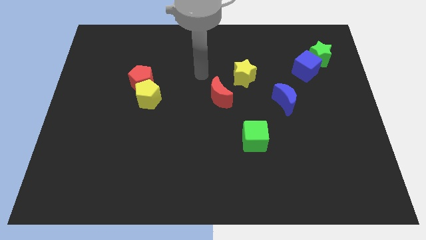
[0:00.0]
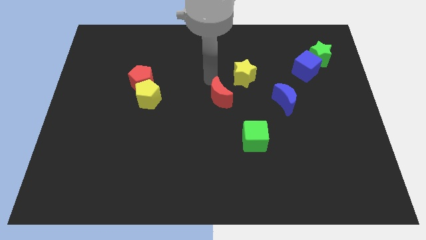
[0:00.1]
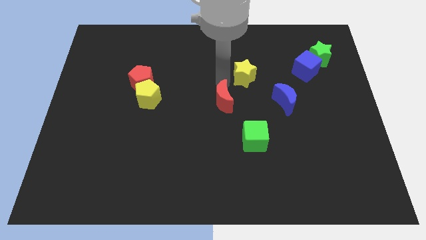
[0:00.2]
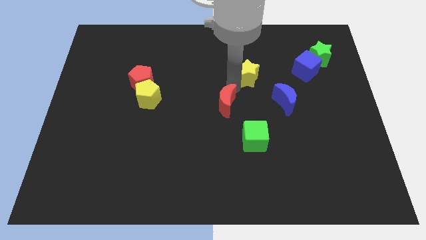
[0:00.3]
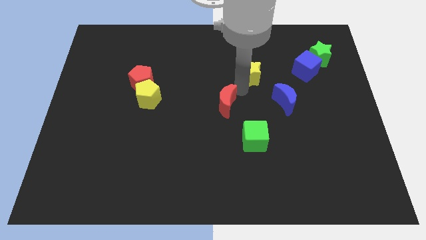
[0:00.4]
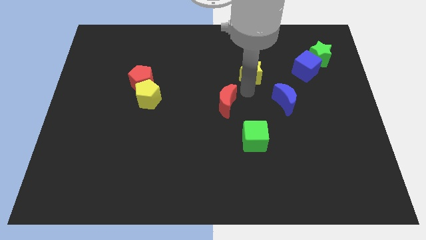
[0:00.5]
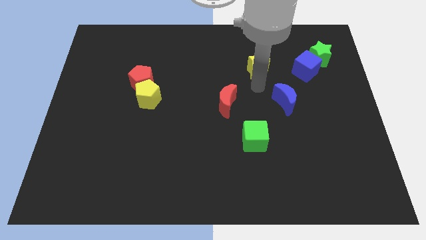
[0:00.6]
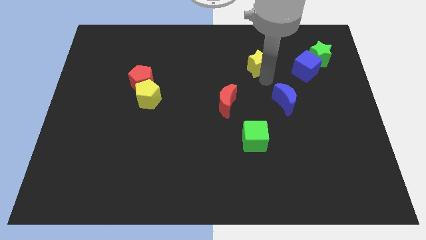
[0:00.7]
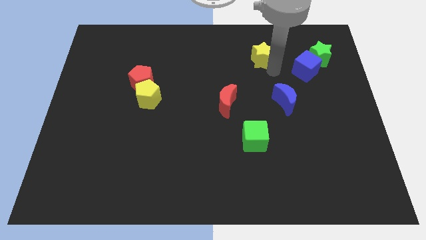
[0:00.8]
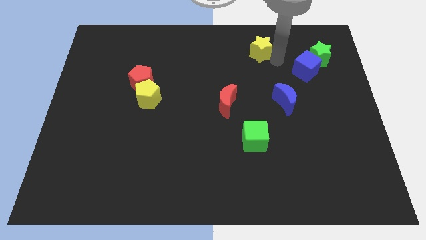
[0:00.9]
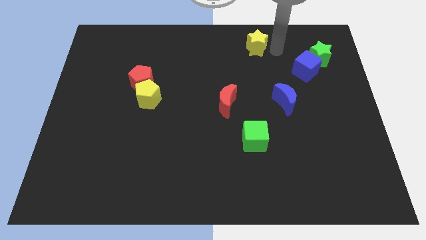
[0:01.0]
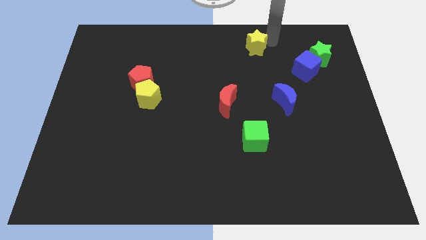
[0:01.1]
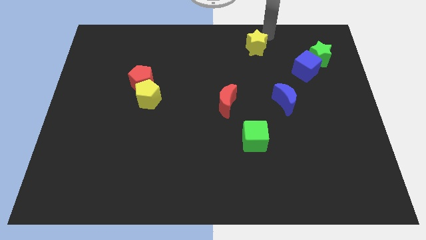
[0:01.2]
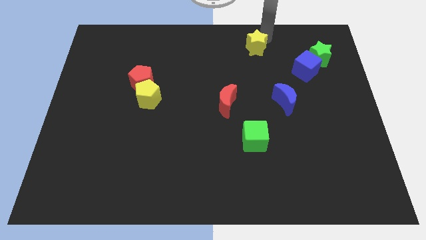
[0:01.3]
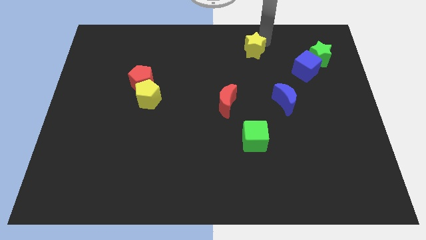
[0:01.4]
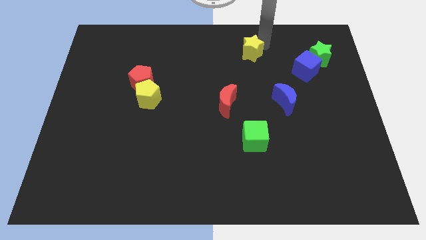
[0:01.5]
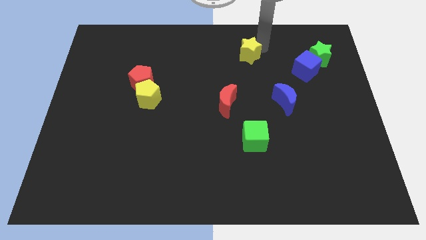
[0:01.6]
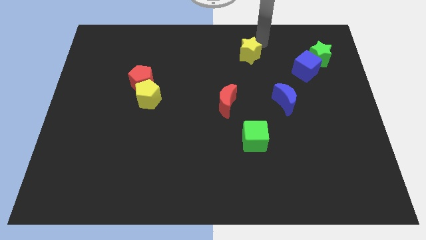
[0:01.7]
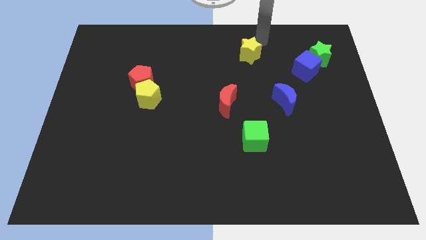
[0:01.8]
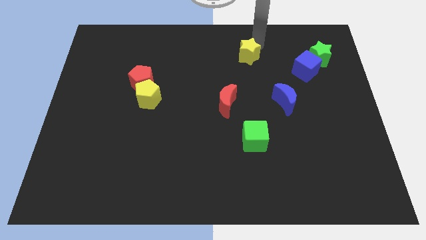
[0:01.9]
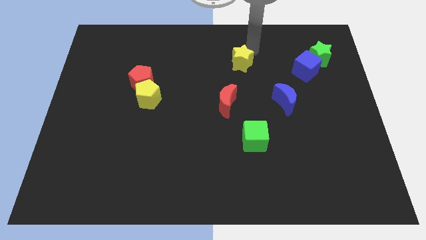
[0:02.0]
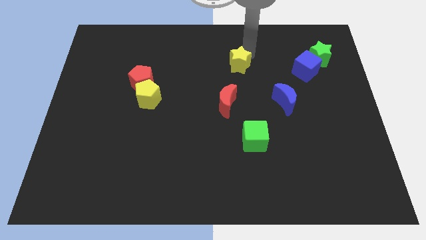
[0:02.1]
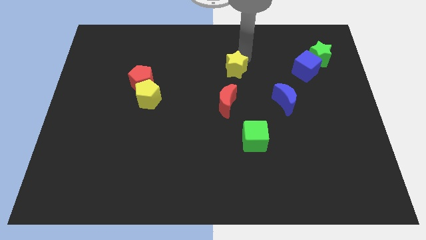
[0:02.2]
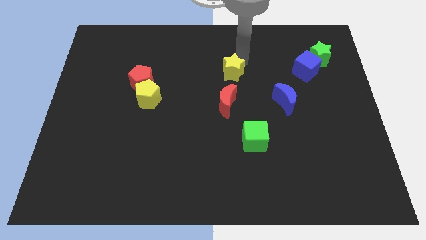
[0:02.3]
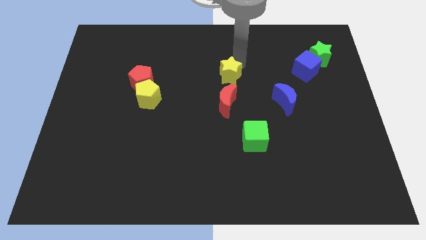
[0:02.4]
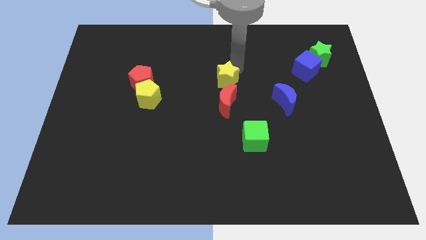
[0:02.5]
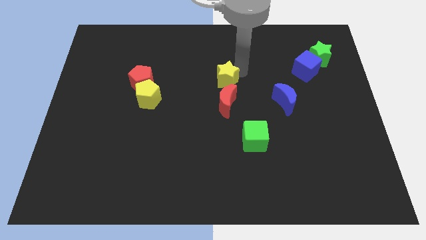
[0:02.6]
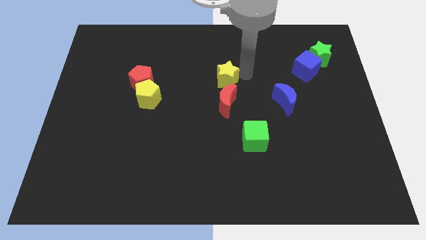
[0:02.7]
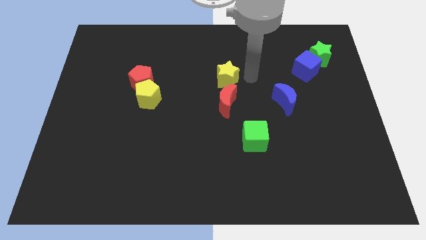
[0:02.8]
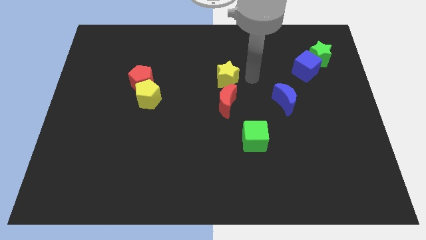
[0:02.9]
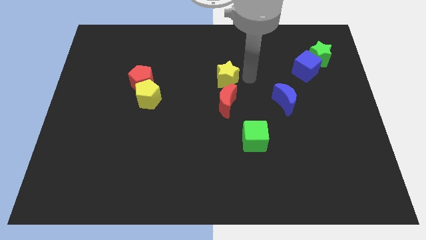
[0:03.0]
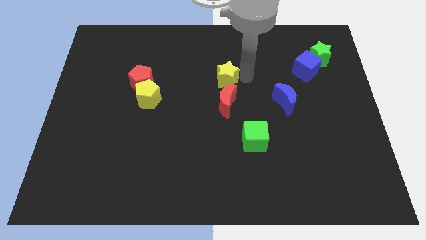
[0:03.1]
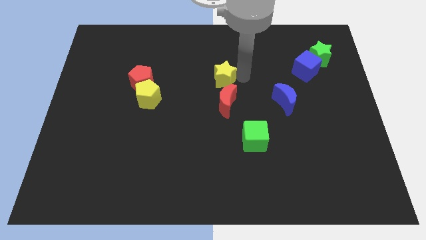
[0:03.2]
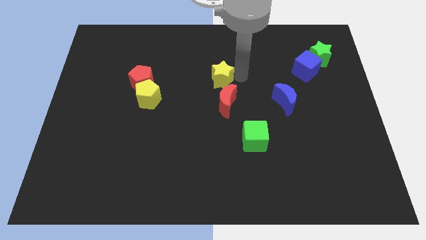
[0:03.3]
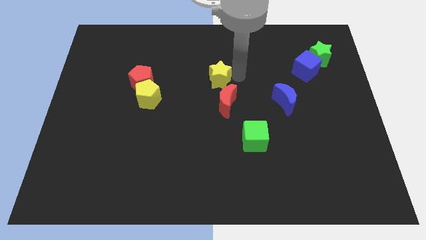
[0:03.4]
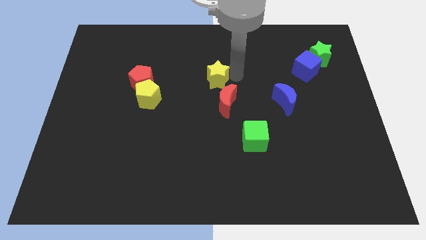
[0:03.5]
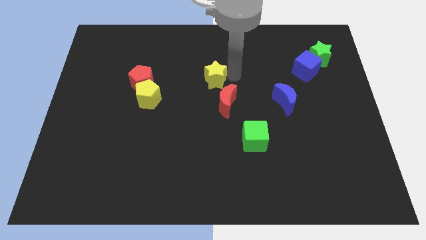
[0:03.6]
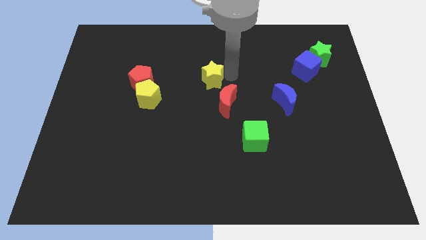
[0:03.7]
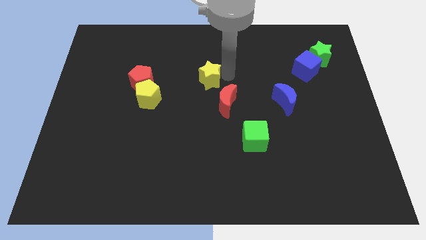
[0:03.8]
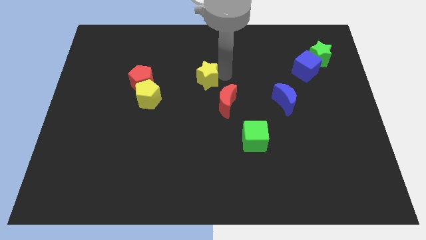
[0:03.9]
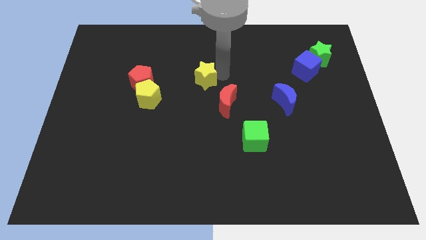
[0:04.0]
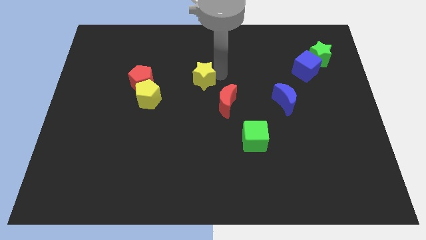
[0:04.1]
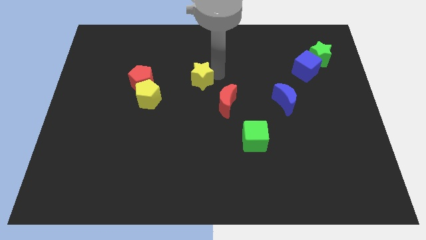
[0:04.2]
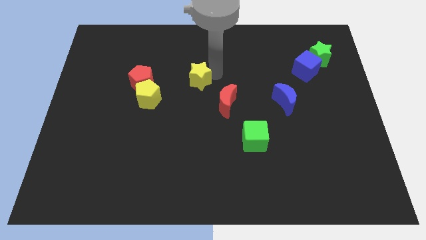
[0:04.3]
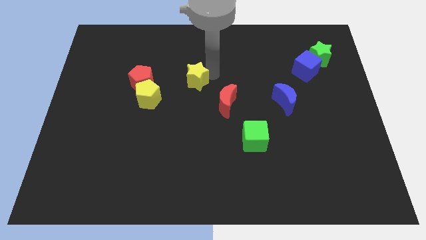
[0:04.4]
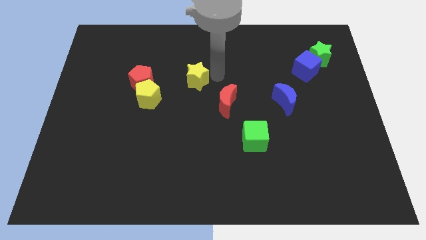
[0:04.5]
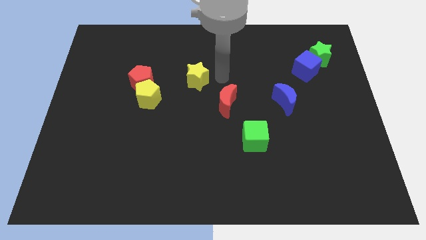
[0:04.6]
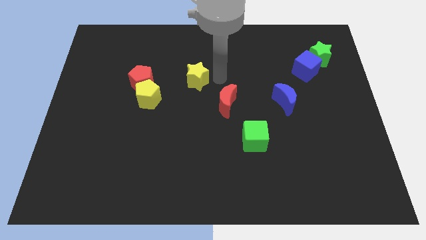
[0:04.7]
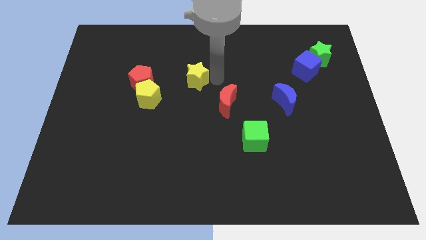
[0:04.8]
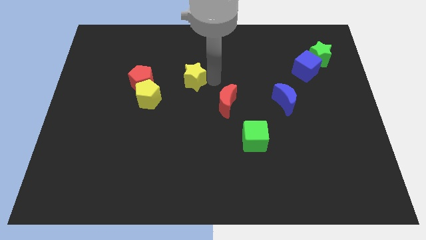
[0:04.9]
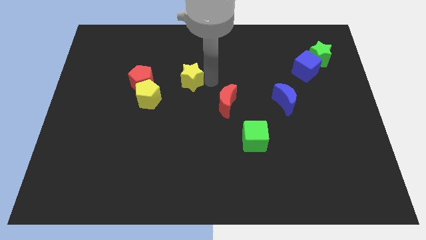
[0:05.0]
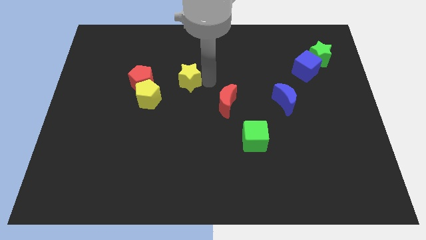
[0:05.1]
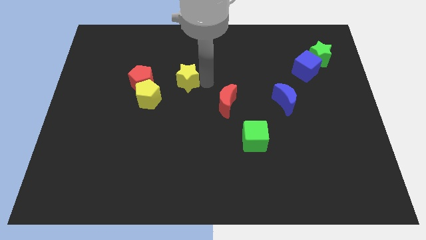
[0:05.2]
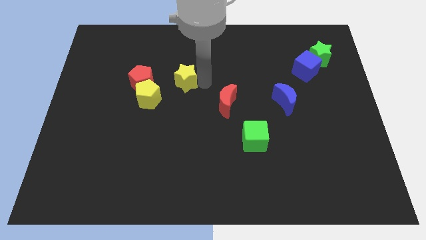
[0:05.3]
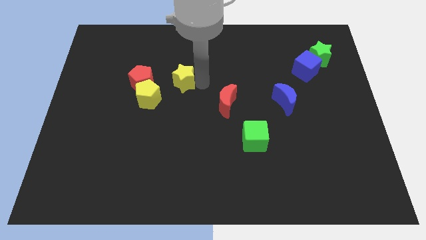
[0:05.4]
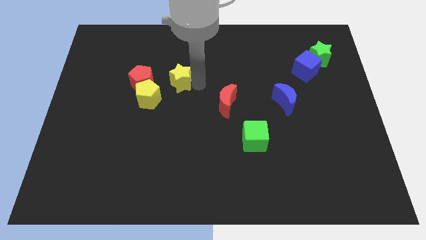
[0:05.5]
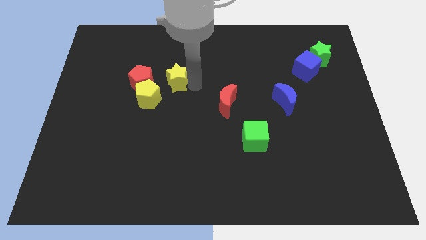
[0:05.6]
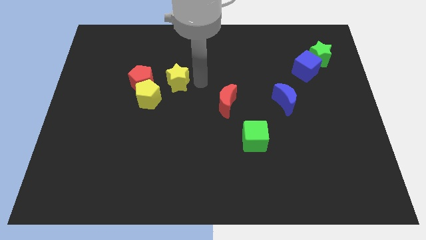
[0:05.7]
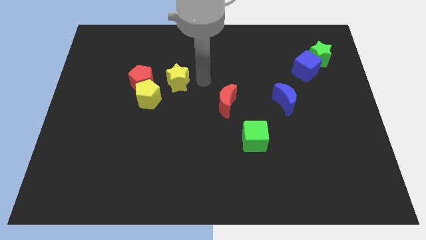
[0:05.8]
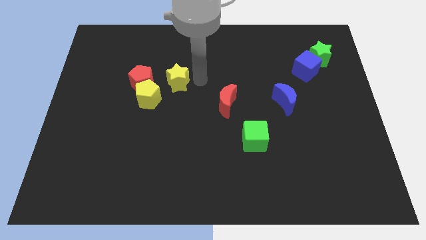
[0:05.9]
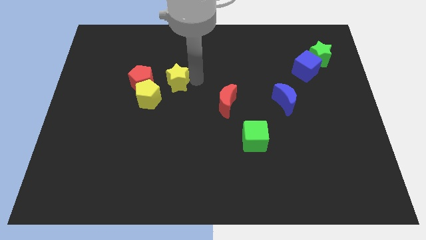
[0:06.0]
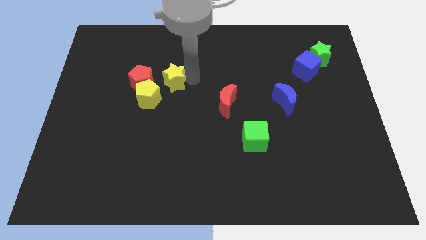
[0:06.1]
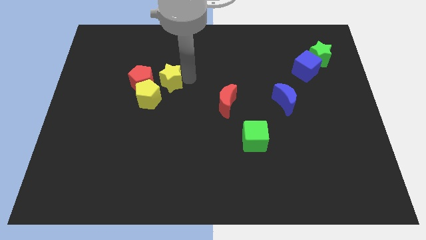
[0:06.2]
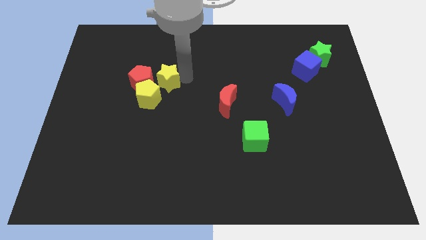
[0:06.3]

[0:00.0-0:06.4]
move the yellow star close to the red pentagon
